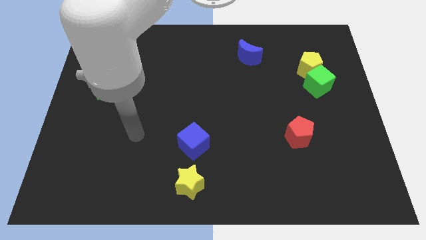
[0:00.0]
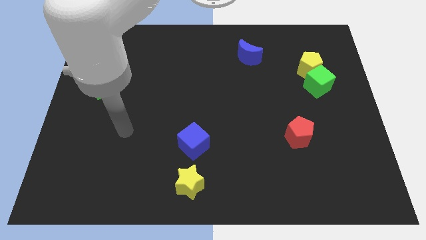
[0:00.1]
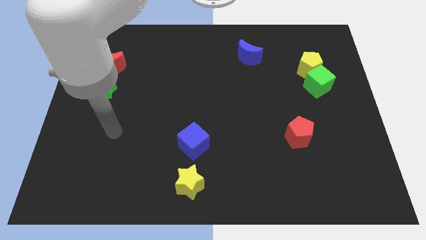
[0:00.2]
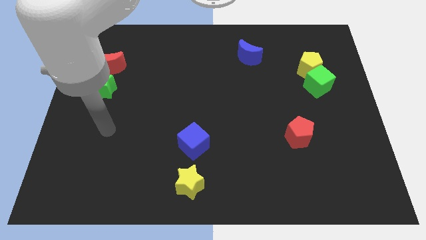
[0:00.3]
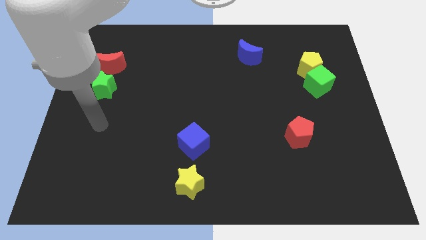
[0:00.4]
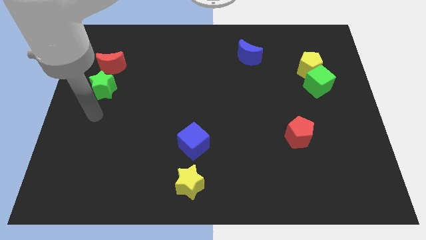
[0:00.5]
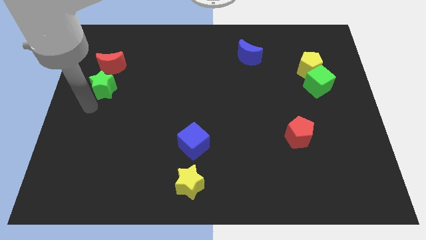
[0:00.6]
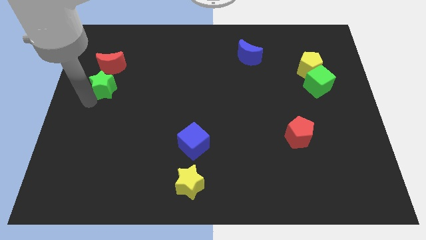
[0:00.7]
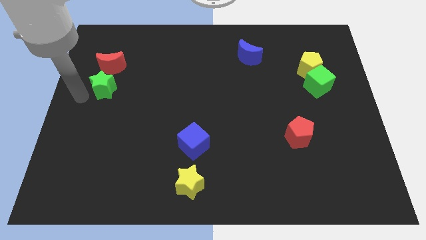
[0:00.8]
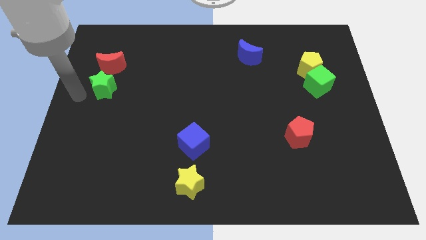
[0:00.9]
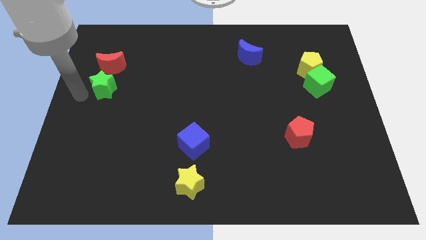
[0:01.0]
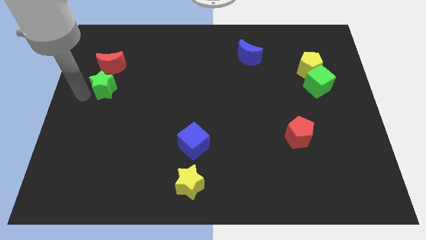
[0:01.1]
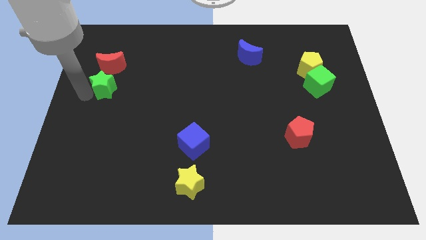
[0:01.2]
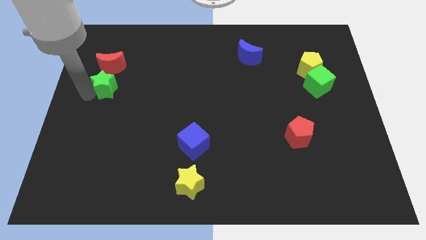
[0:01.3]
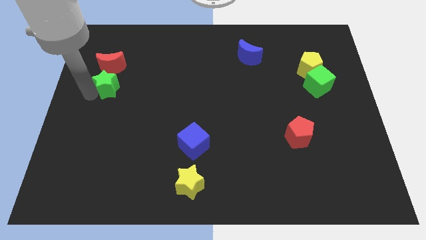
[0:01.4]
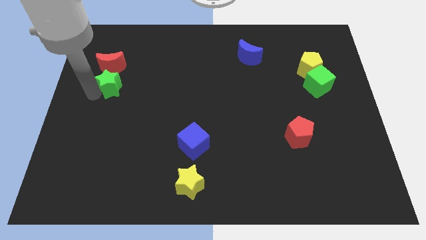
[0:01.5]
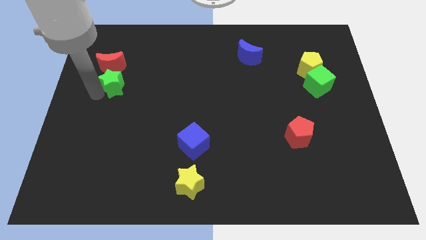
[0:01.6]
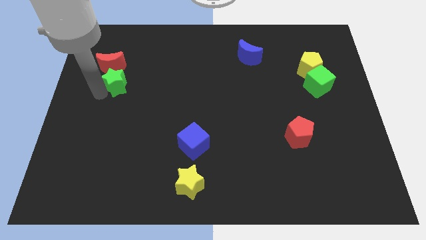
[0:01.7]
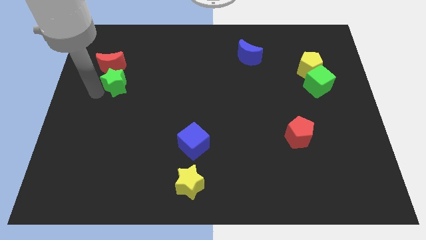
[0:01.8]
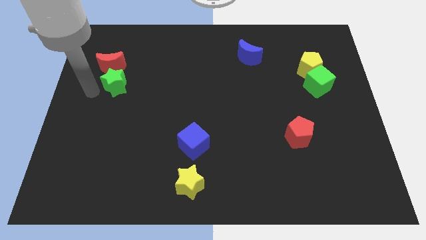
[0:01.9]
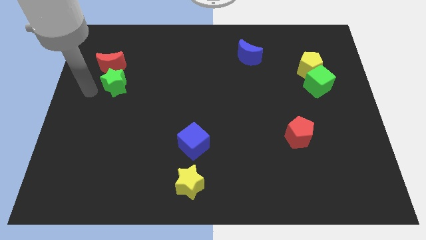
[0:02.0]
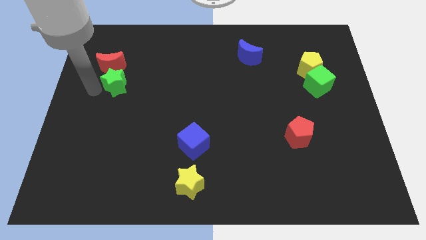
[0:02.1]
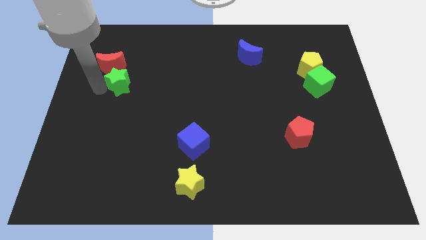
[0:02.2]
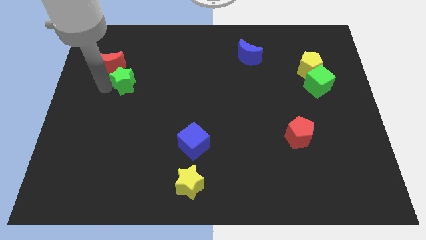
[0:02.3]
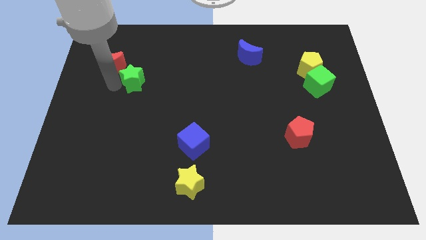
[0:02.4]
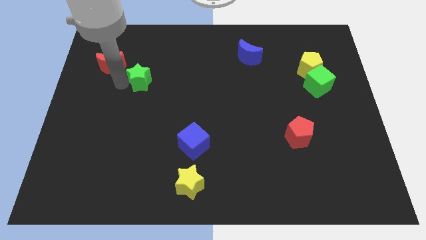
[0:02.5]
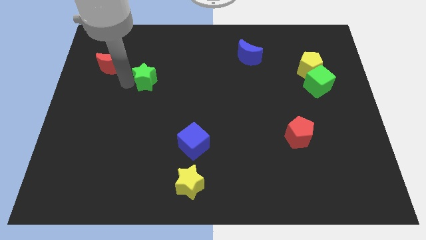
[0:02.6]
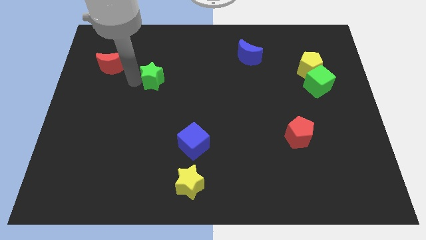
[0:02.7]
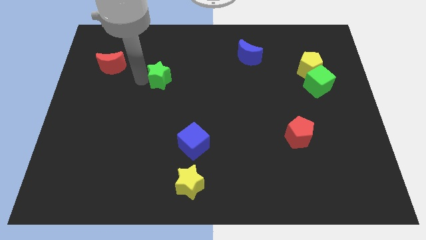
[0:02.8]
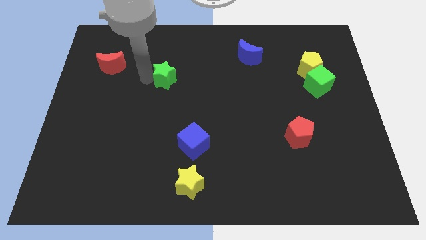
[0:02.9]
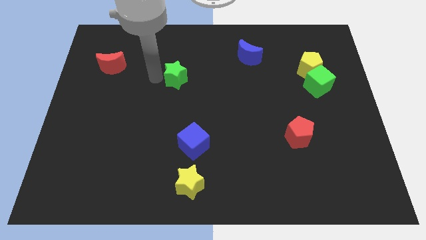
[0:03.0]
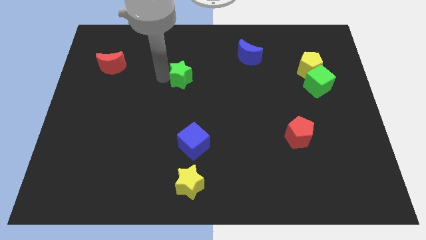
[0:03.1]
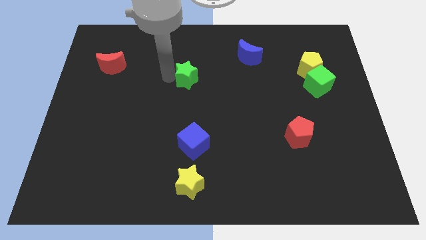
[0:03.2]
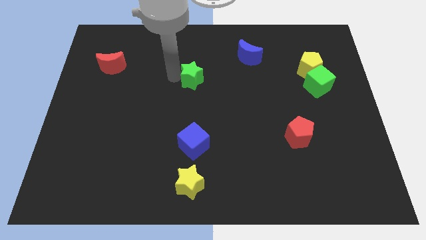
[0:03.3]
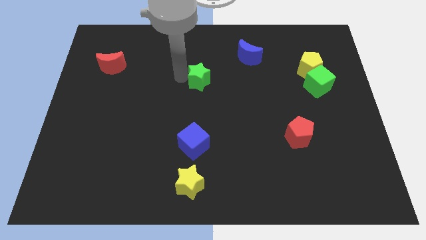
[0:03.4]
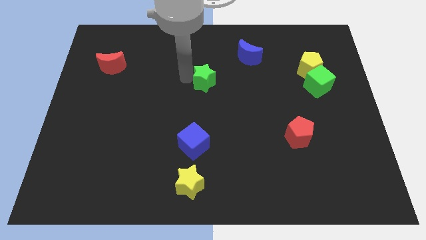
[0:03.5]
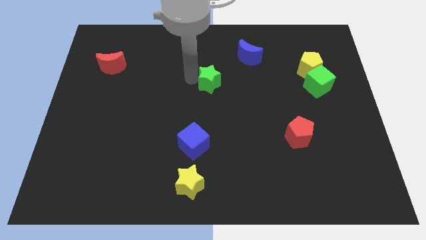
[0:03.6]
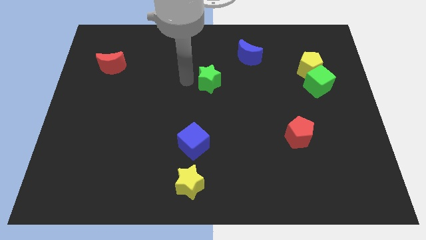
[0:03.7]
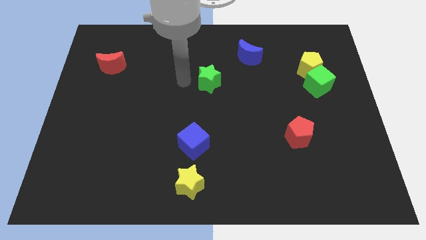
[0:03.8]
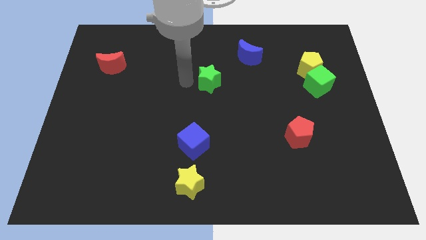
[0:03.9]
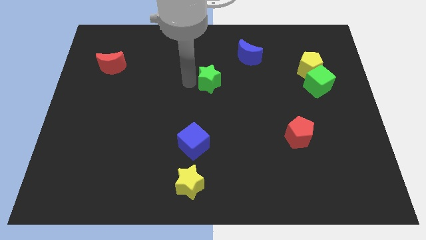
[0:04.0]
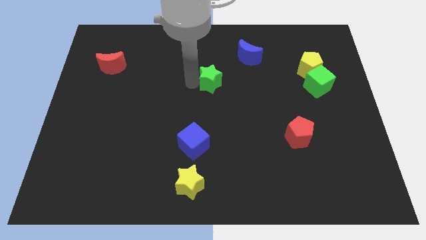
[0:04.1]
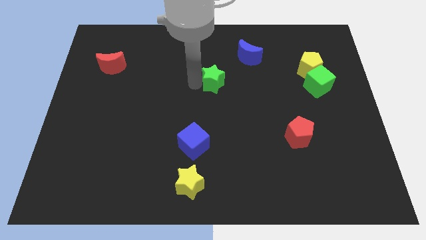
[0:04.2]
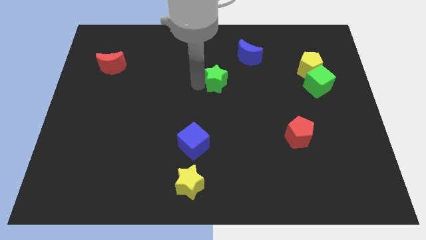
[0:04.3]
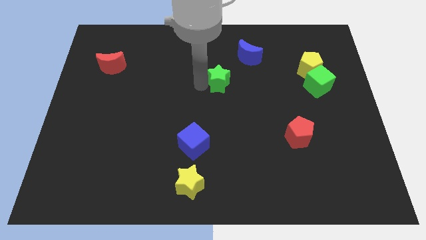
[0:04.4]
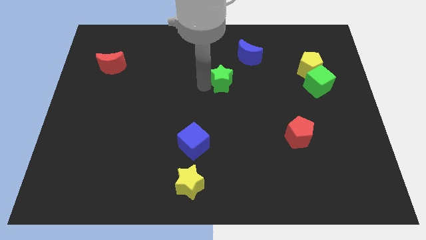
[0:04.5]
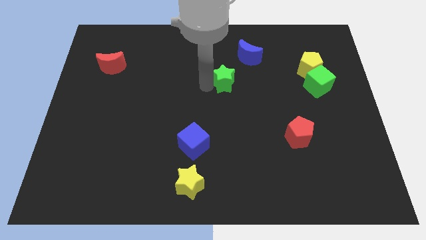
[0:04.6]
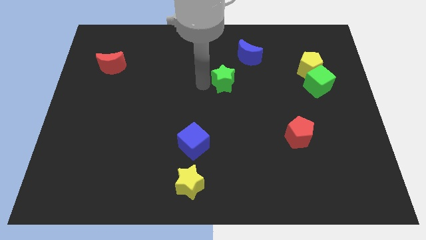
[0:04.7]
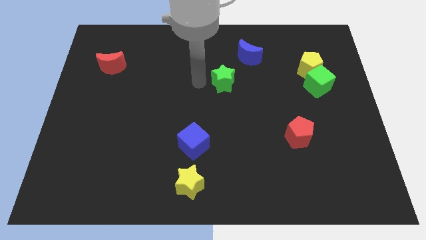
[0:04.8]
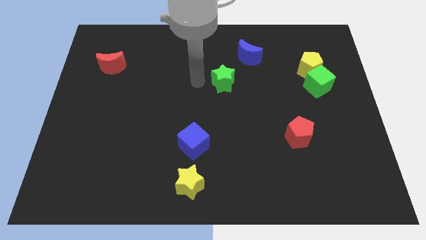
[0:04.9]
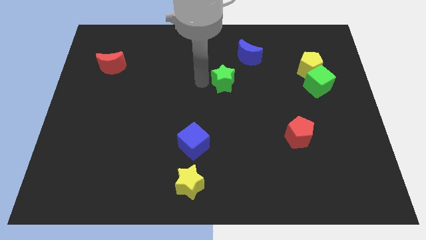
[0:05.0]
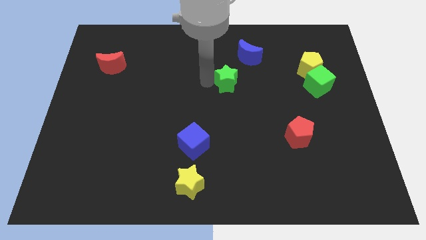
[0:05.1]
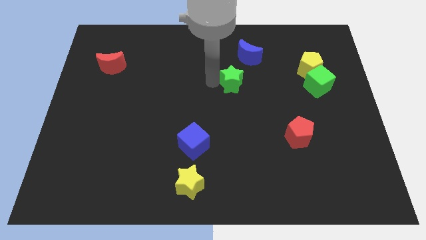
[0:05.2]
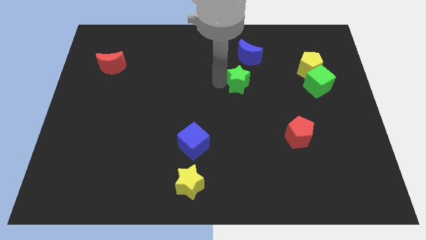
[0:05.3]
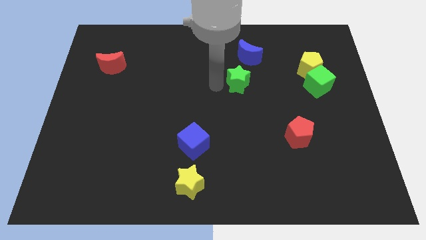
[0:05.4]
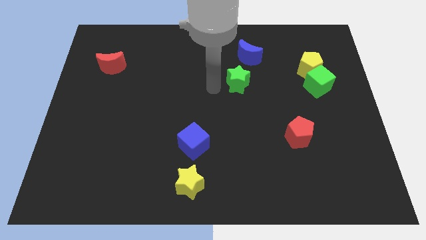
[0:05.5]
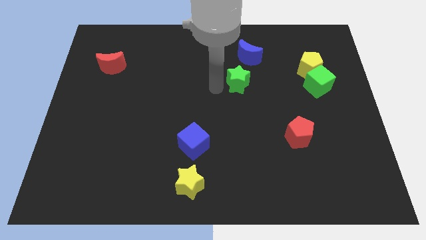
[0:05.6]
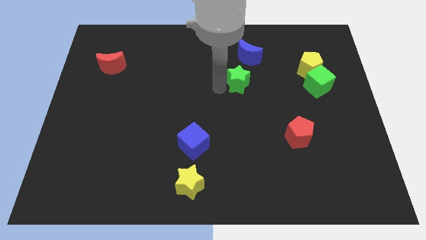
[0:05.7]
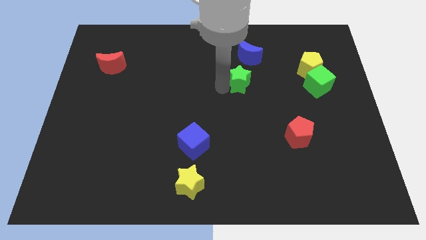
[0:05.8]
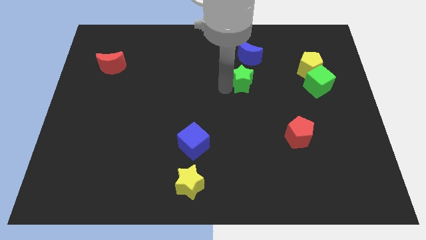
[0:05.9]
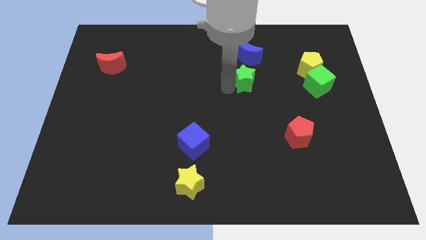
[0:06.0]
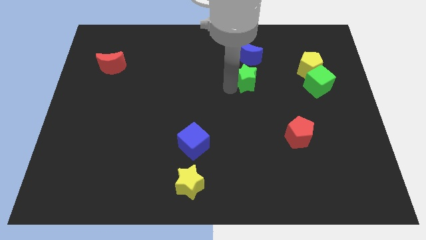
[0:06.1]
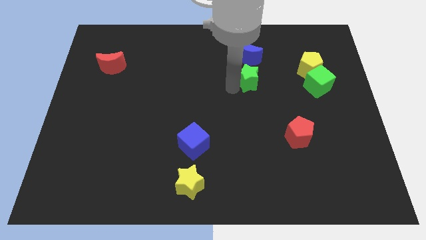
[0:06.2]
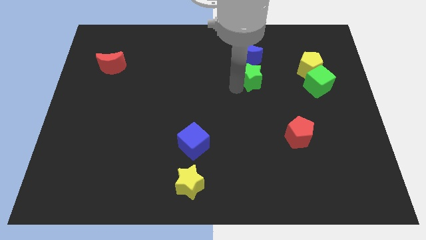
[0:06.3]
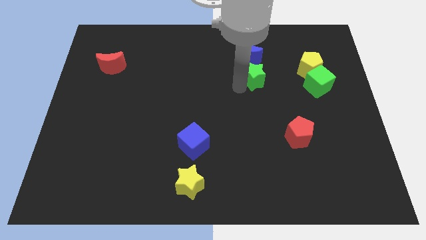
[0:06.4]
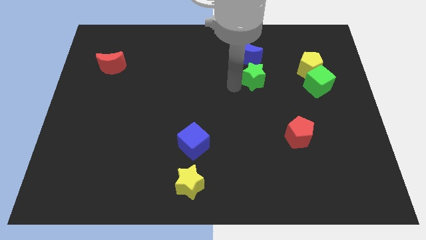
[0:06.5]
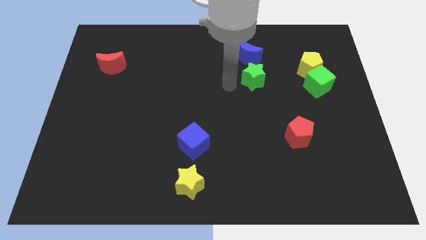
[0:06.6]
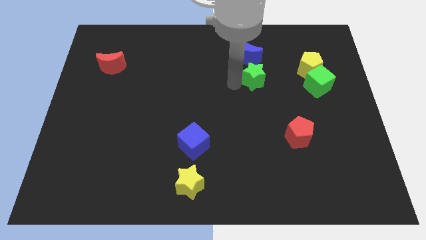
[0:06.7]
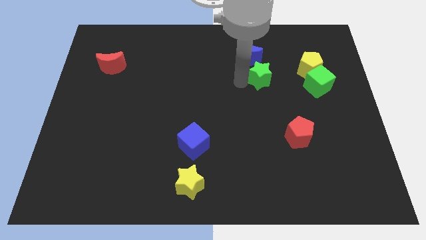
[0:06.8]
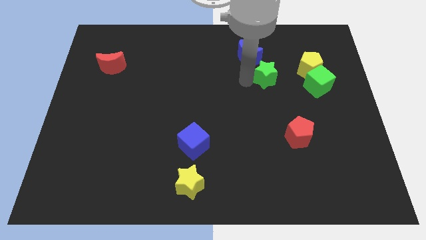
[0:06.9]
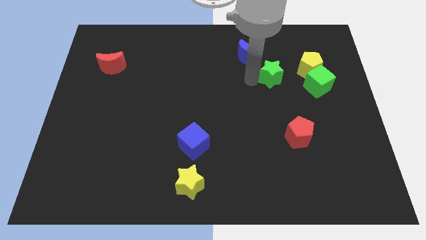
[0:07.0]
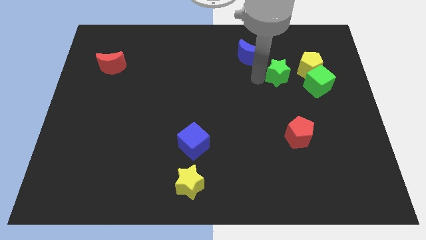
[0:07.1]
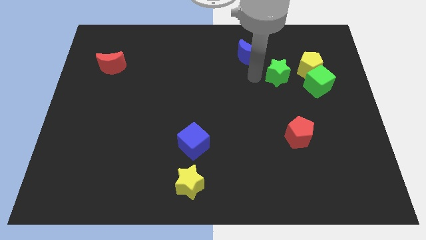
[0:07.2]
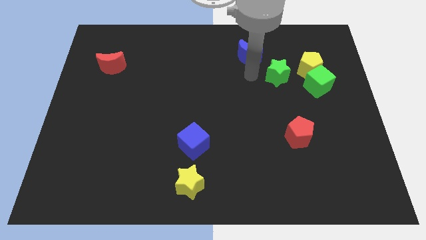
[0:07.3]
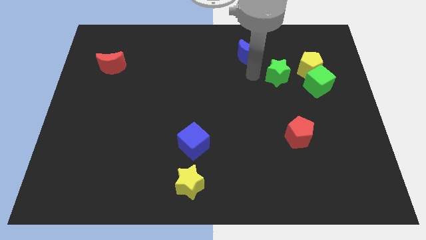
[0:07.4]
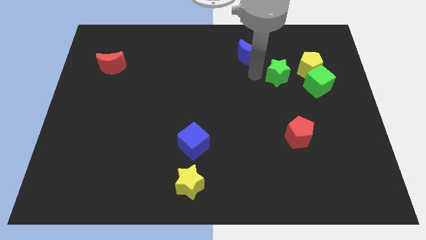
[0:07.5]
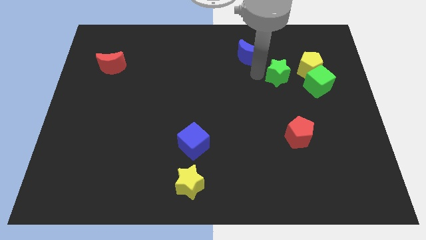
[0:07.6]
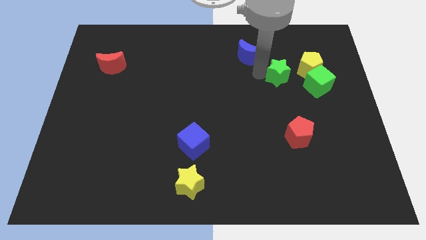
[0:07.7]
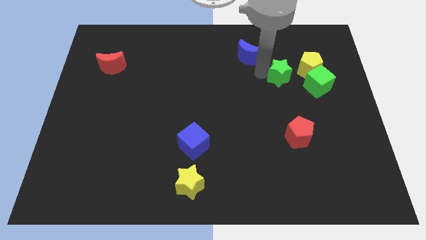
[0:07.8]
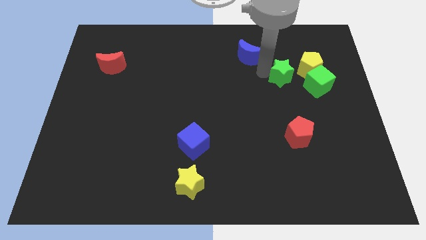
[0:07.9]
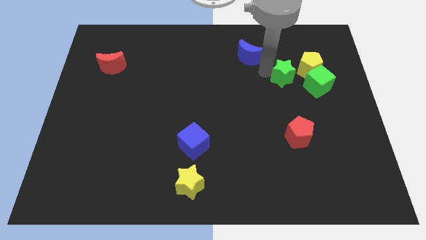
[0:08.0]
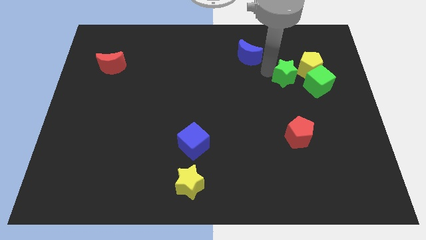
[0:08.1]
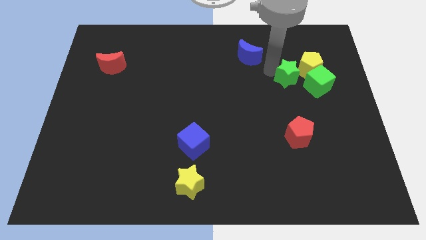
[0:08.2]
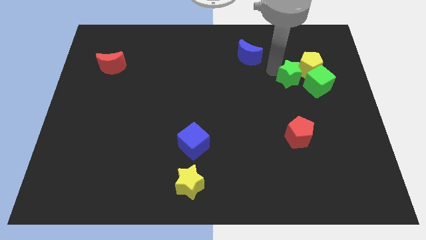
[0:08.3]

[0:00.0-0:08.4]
push the green star towards the yellow pentagon
